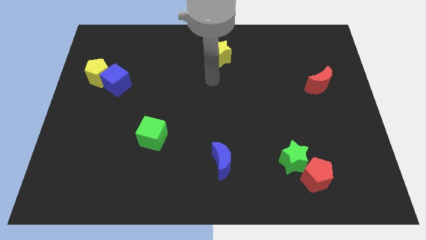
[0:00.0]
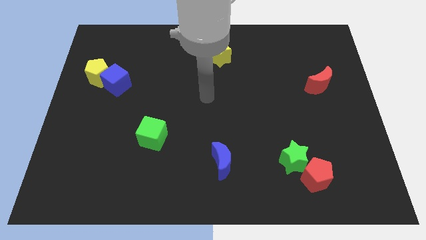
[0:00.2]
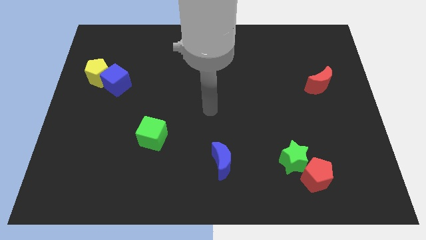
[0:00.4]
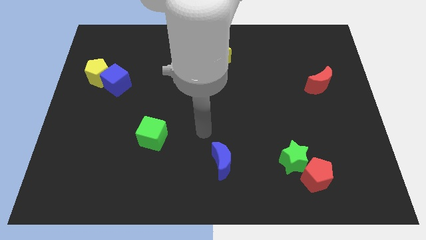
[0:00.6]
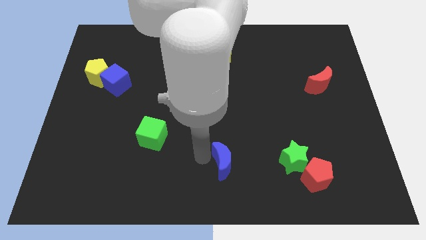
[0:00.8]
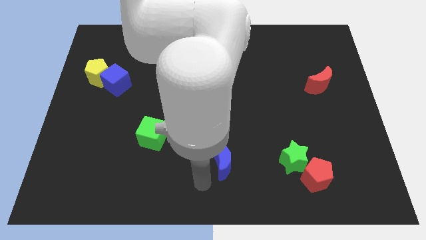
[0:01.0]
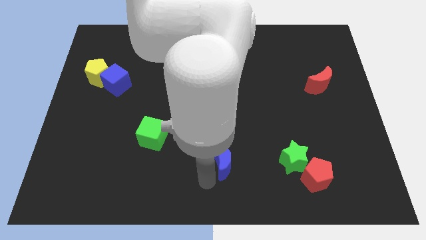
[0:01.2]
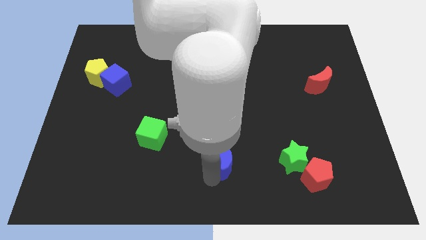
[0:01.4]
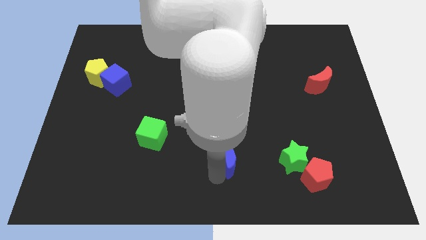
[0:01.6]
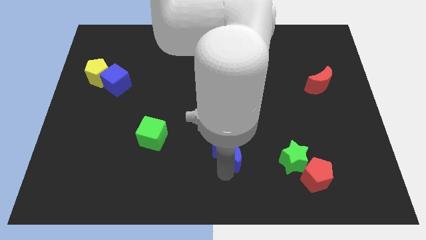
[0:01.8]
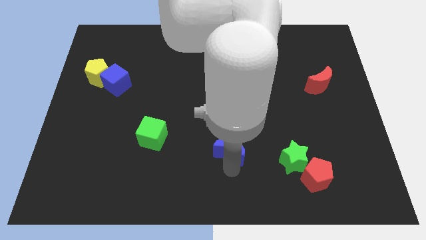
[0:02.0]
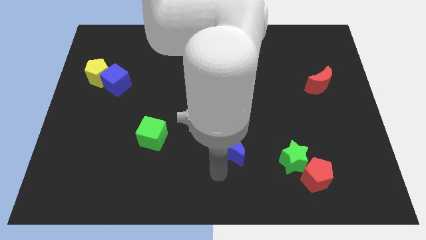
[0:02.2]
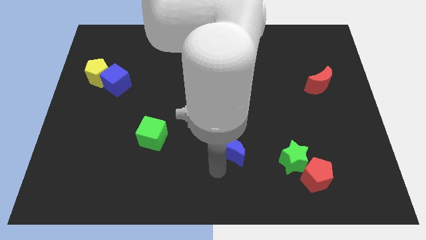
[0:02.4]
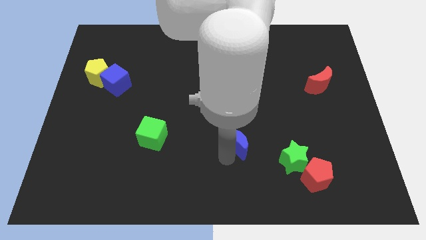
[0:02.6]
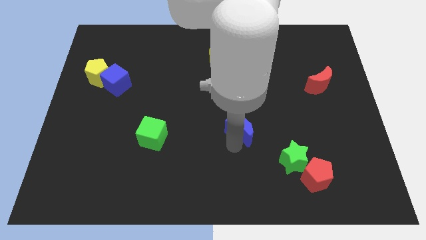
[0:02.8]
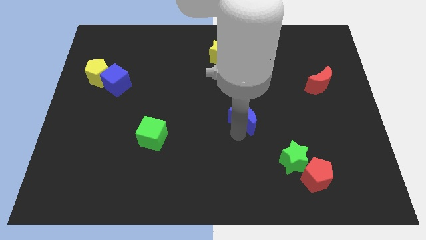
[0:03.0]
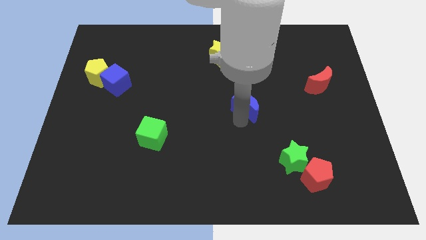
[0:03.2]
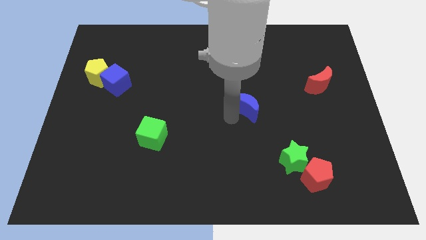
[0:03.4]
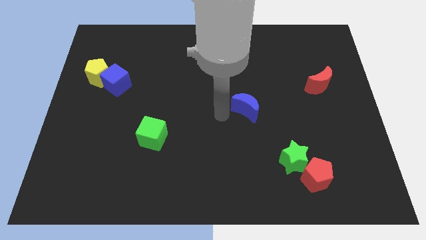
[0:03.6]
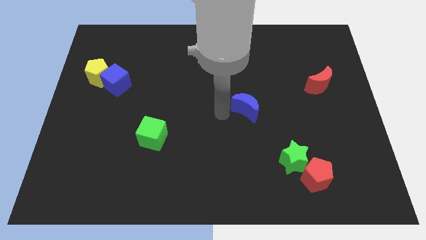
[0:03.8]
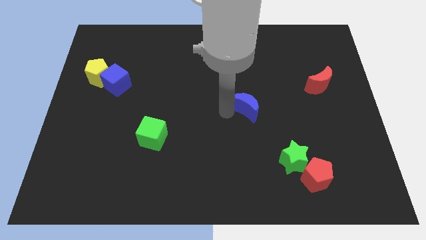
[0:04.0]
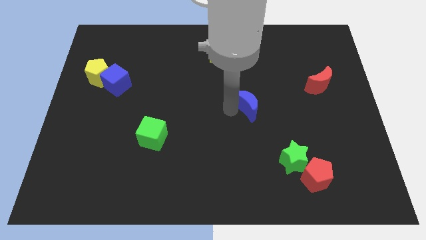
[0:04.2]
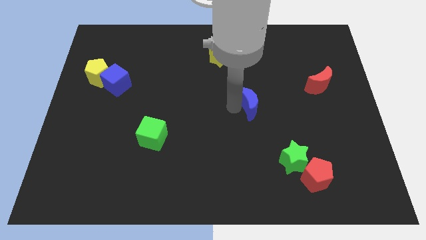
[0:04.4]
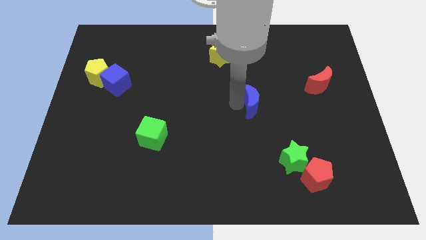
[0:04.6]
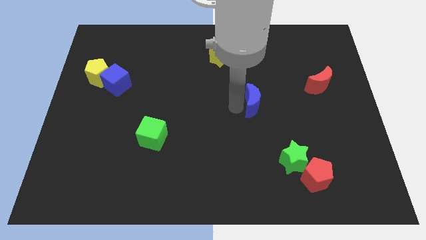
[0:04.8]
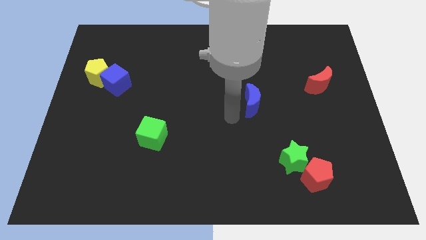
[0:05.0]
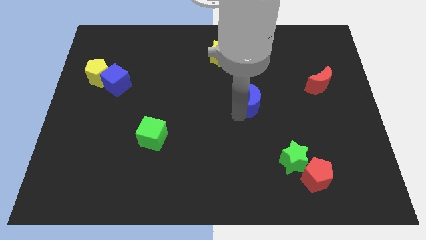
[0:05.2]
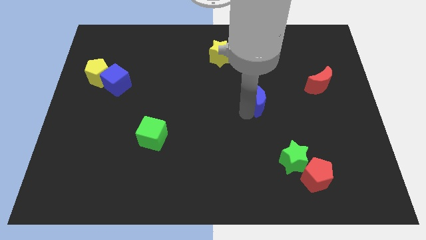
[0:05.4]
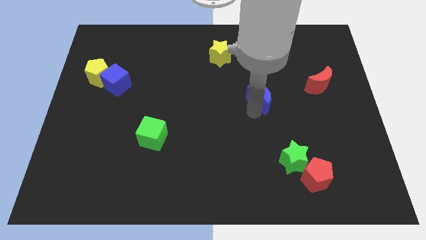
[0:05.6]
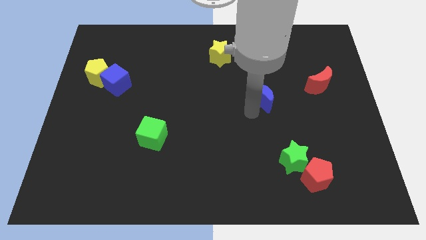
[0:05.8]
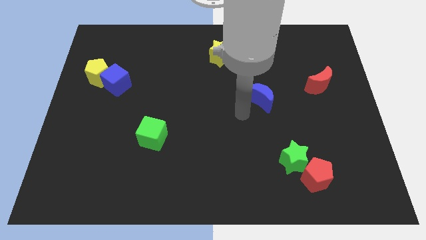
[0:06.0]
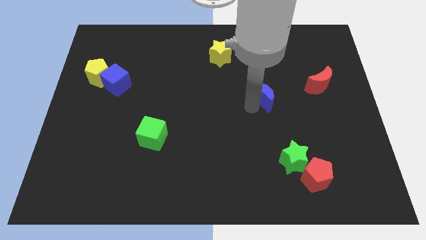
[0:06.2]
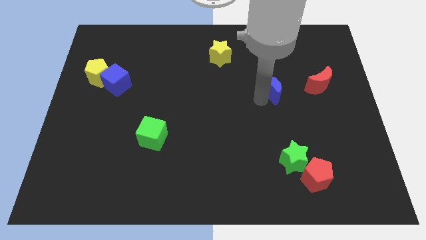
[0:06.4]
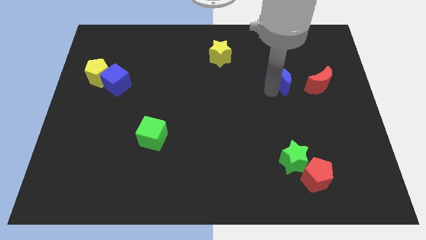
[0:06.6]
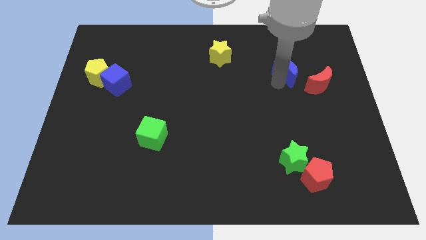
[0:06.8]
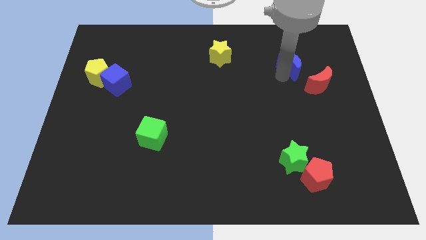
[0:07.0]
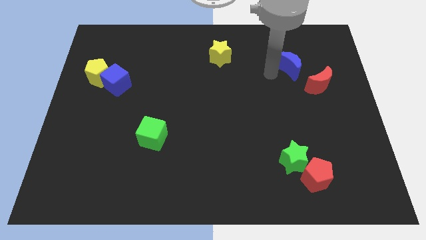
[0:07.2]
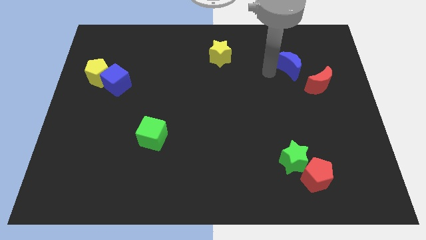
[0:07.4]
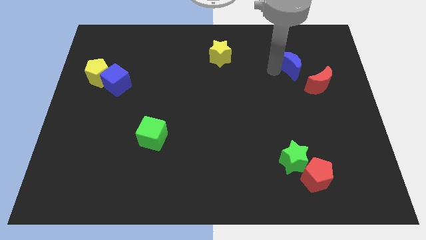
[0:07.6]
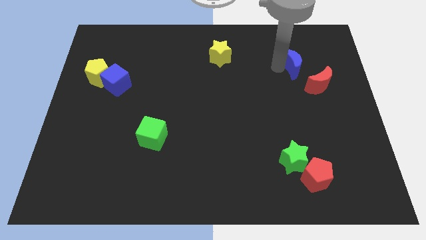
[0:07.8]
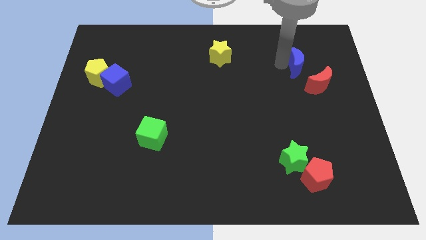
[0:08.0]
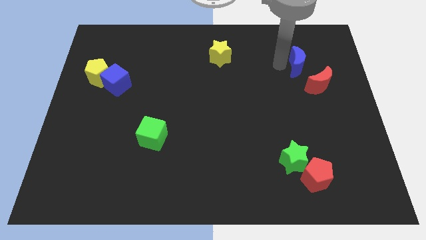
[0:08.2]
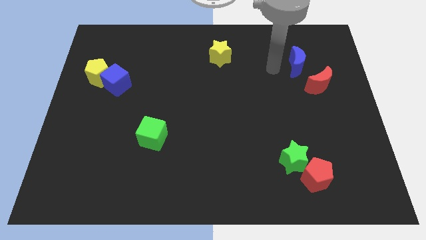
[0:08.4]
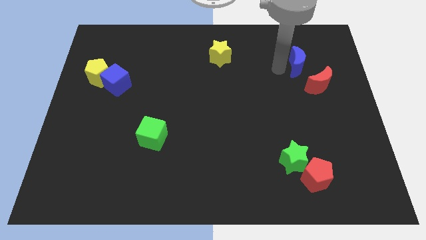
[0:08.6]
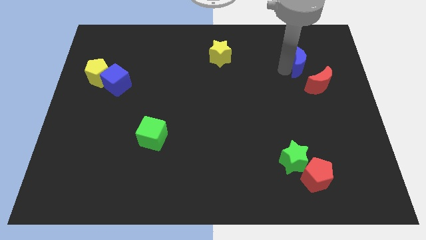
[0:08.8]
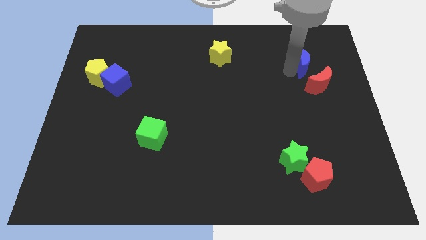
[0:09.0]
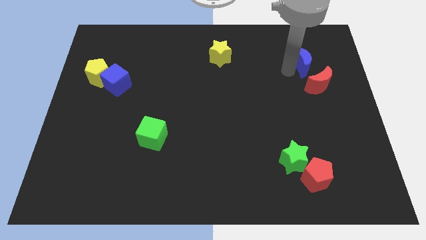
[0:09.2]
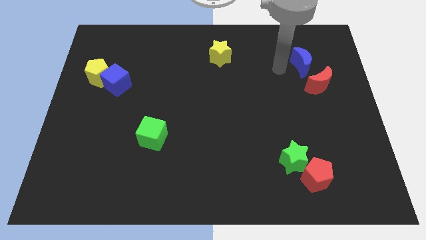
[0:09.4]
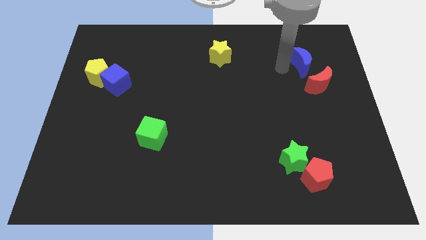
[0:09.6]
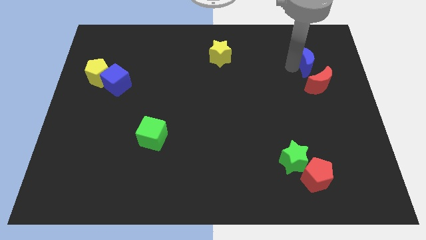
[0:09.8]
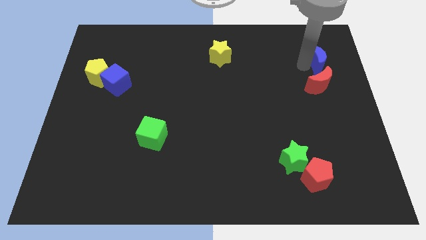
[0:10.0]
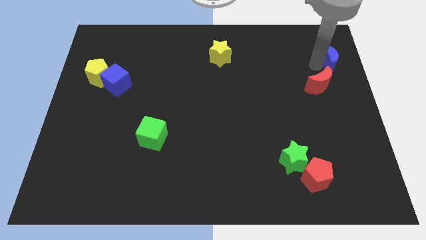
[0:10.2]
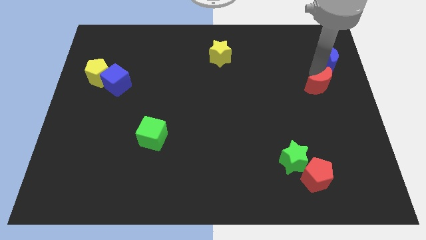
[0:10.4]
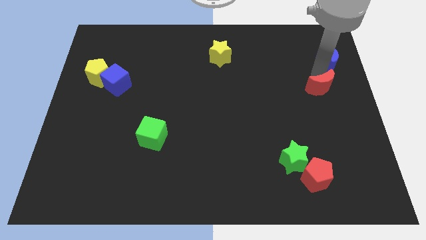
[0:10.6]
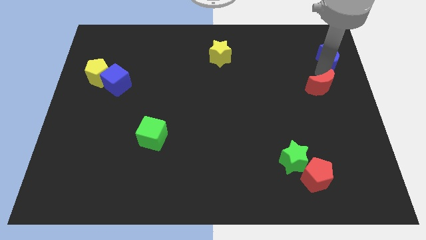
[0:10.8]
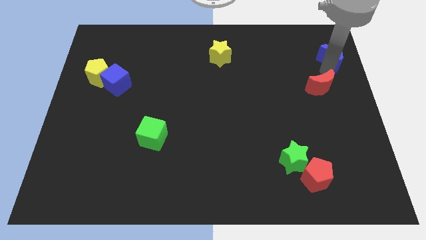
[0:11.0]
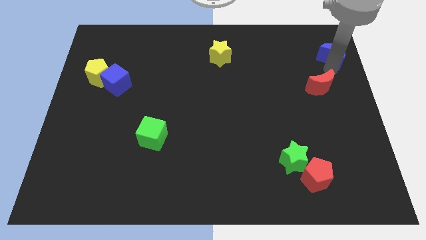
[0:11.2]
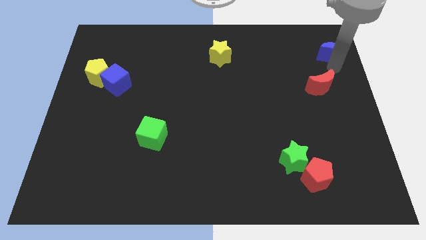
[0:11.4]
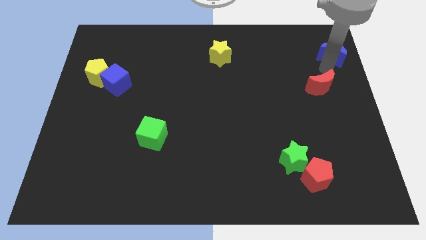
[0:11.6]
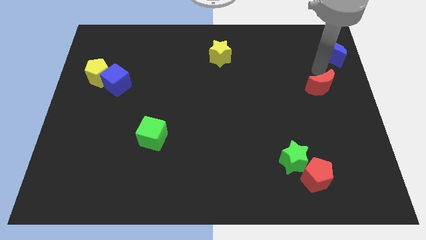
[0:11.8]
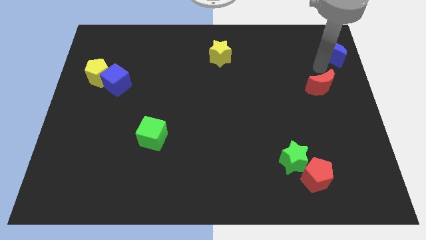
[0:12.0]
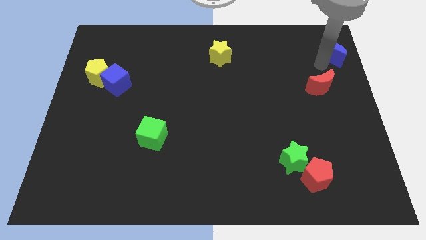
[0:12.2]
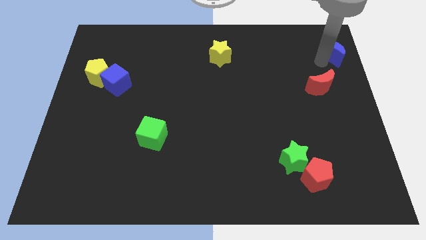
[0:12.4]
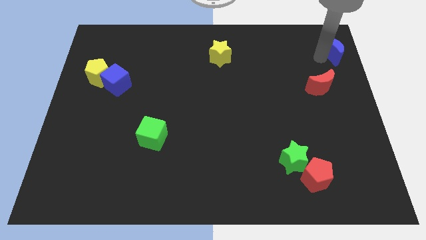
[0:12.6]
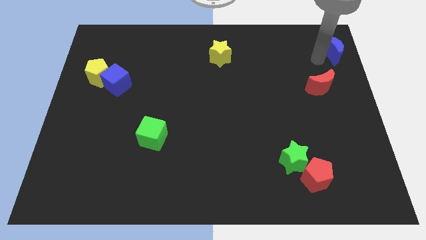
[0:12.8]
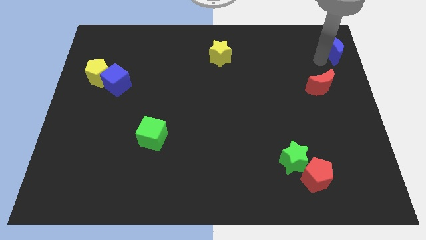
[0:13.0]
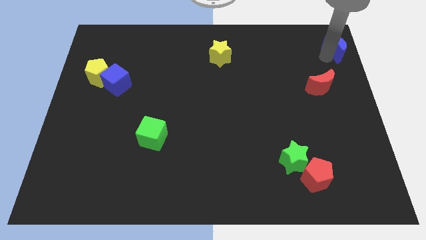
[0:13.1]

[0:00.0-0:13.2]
push the blue moon to the upper right corner

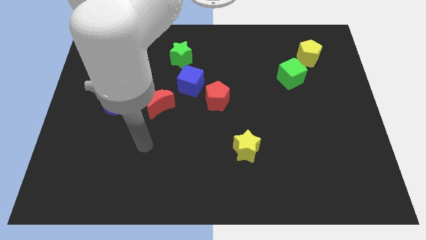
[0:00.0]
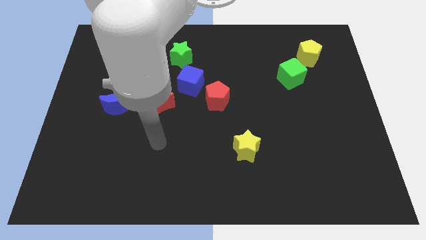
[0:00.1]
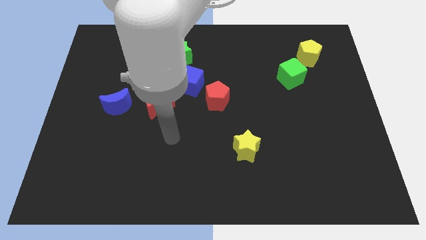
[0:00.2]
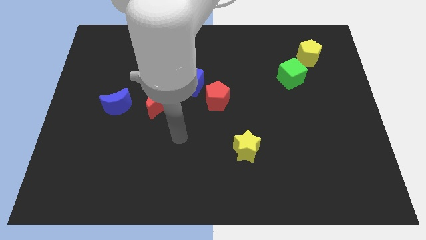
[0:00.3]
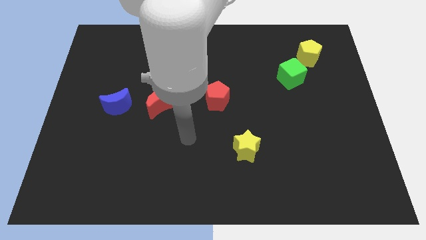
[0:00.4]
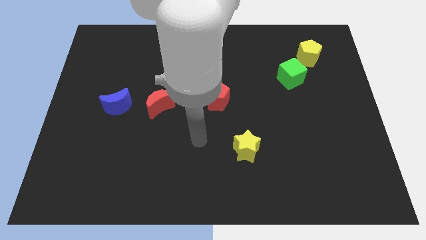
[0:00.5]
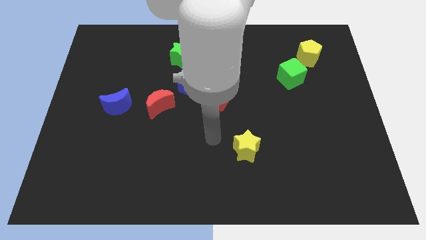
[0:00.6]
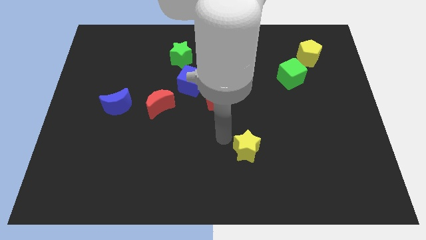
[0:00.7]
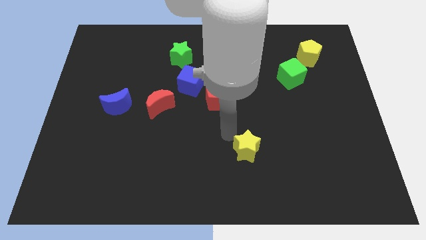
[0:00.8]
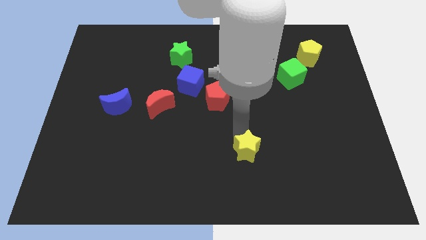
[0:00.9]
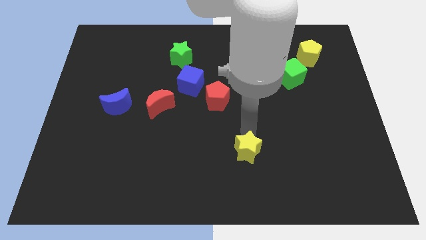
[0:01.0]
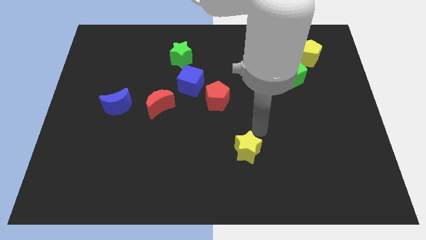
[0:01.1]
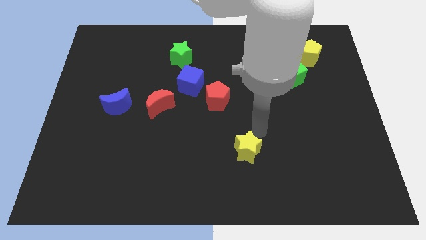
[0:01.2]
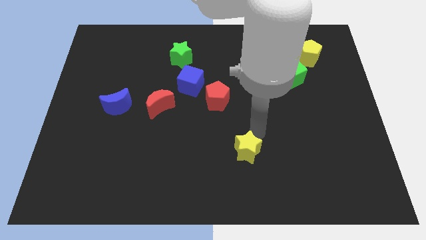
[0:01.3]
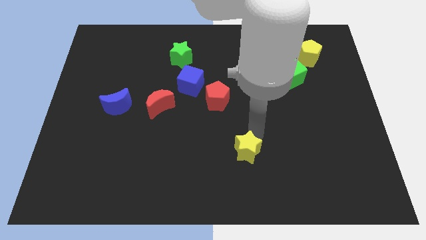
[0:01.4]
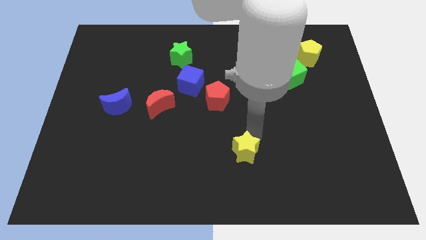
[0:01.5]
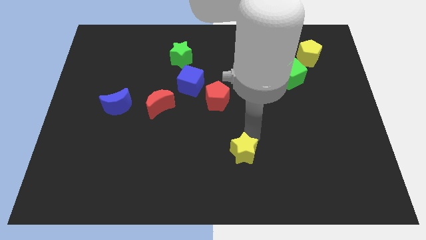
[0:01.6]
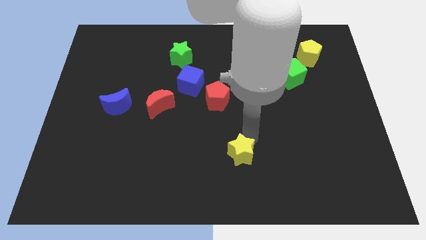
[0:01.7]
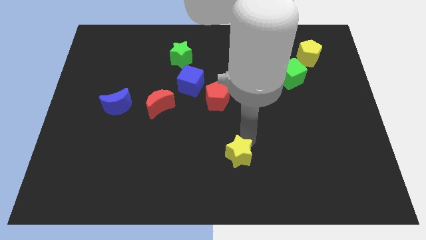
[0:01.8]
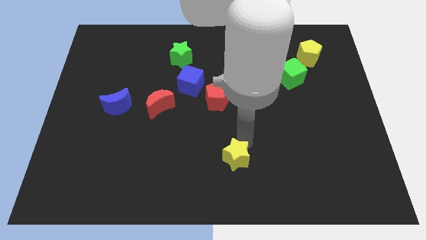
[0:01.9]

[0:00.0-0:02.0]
put the yellow star to the bottom
